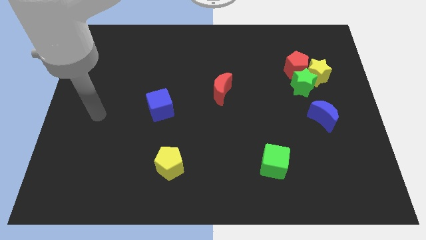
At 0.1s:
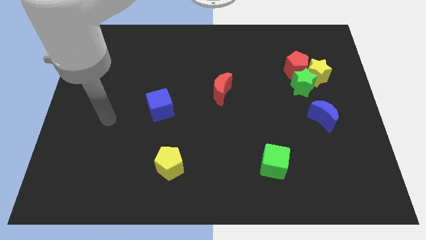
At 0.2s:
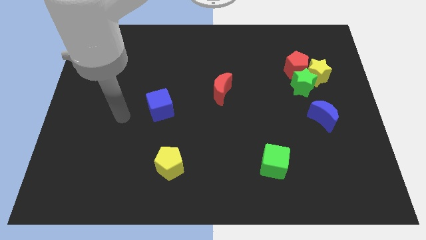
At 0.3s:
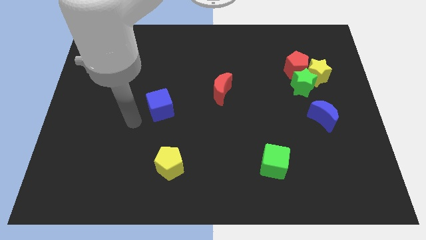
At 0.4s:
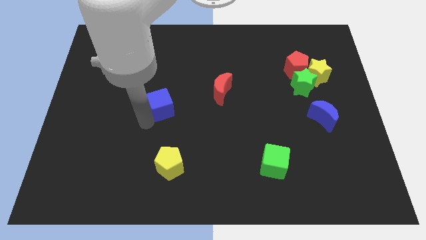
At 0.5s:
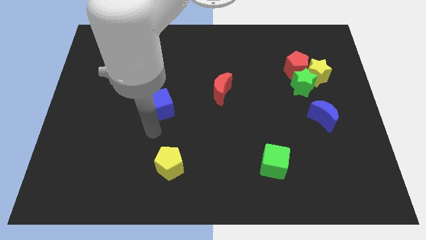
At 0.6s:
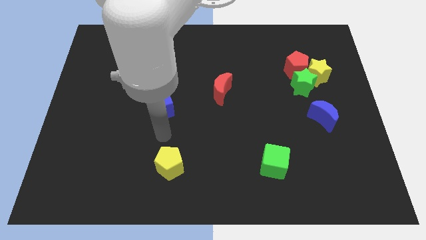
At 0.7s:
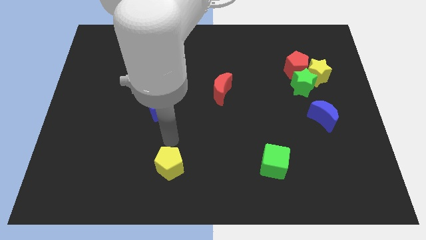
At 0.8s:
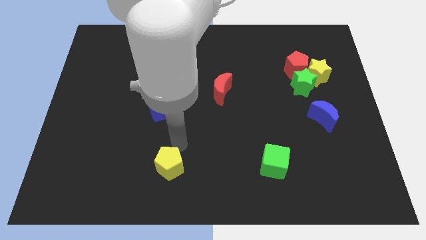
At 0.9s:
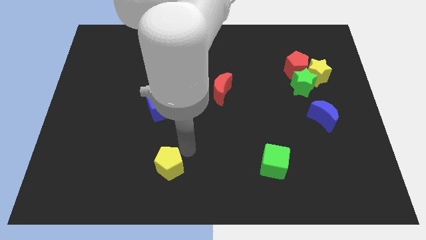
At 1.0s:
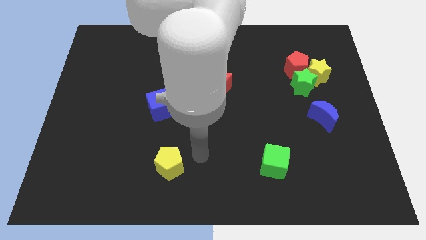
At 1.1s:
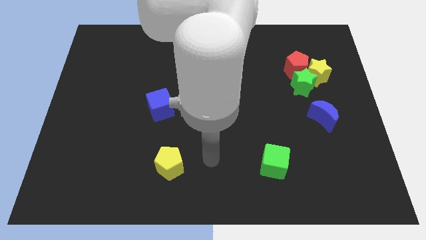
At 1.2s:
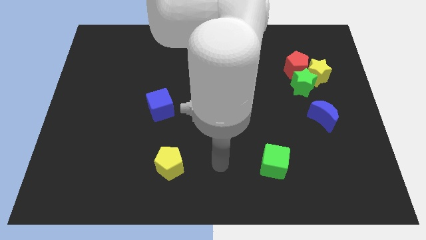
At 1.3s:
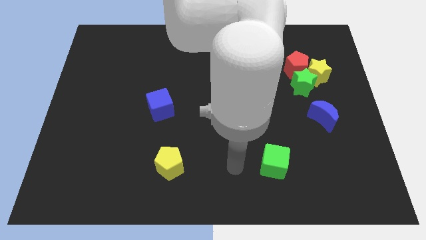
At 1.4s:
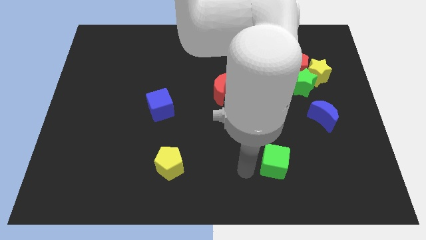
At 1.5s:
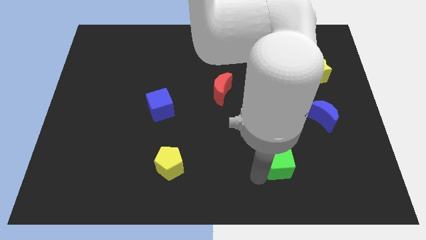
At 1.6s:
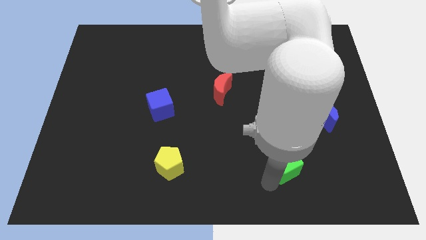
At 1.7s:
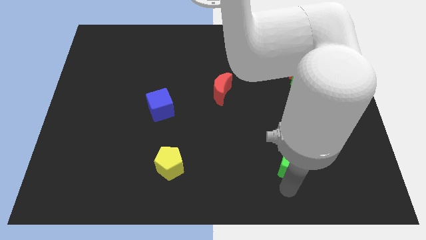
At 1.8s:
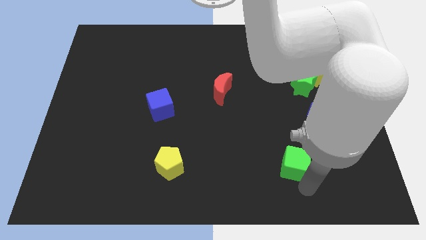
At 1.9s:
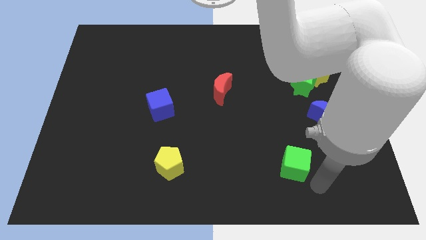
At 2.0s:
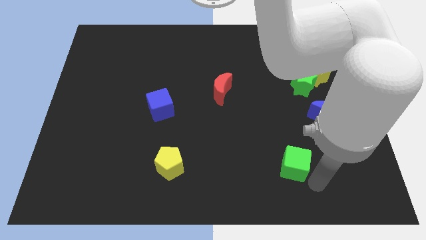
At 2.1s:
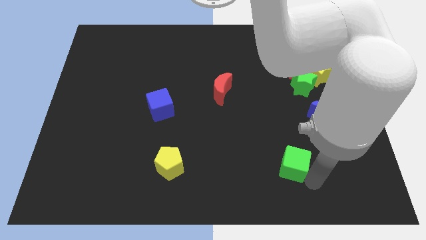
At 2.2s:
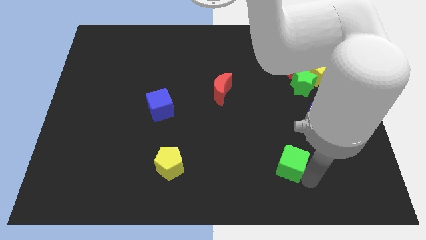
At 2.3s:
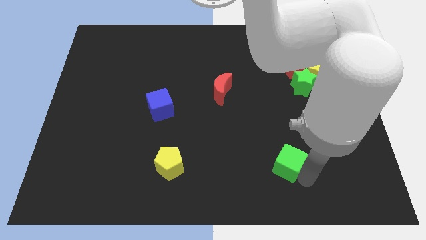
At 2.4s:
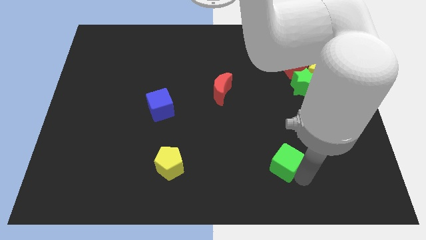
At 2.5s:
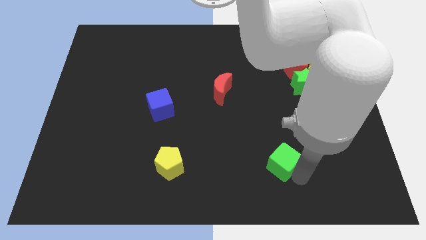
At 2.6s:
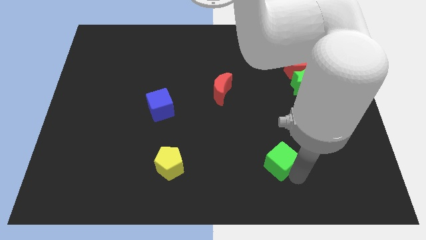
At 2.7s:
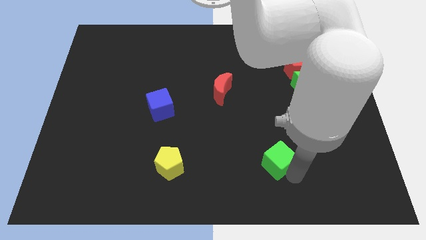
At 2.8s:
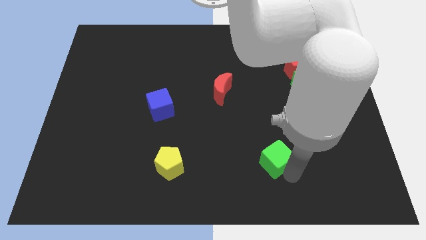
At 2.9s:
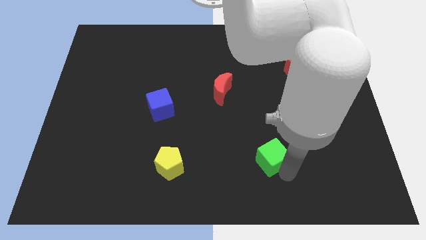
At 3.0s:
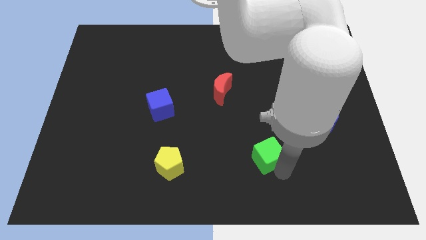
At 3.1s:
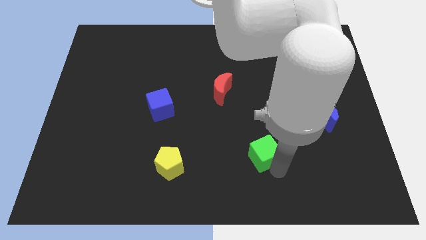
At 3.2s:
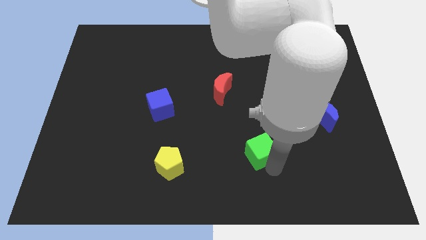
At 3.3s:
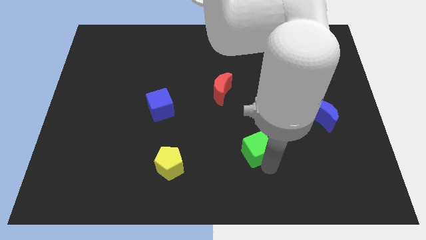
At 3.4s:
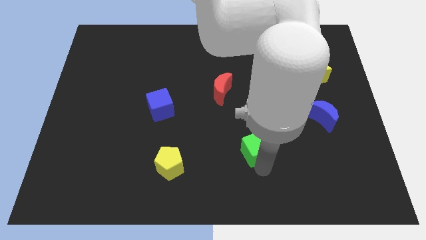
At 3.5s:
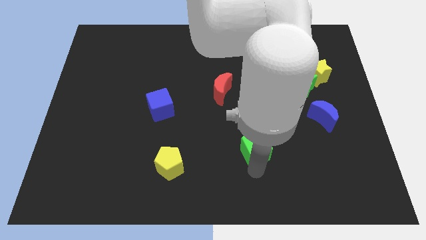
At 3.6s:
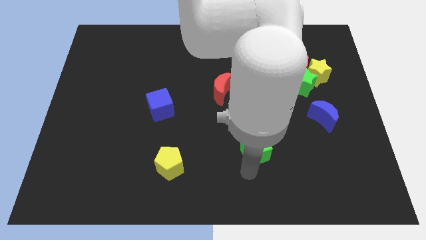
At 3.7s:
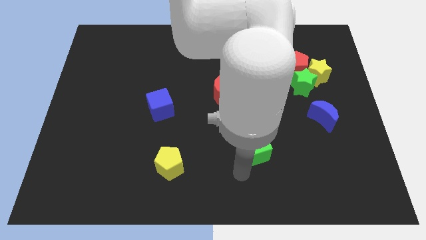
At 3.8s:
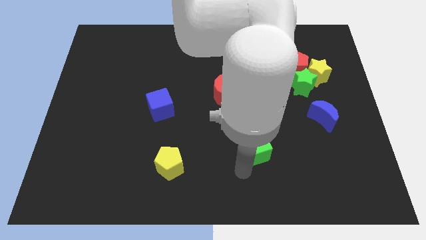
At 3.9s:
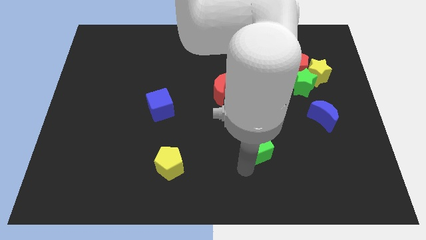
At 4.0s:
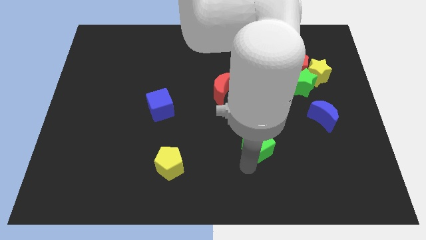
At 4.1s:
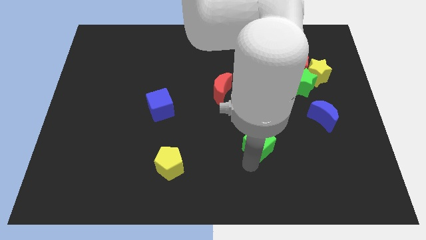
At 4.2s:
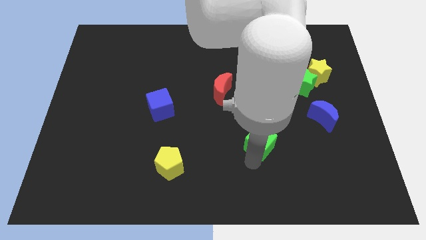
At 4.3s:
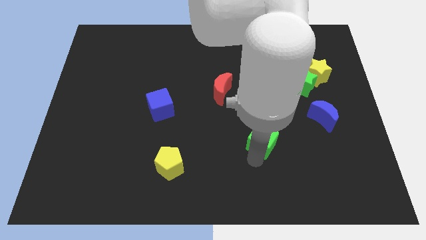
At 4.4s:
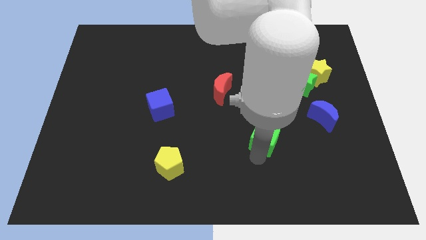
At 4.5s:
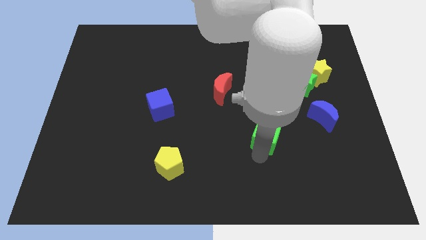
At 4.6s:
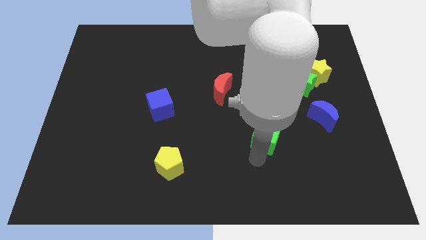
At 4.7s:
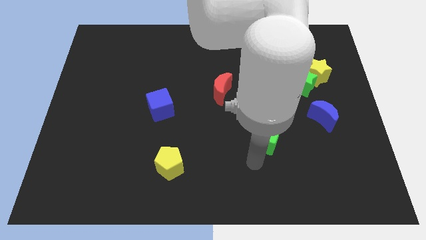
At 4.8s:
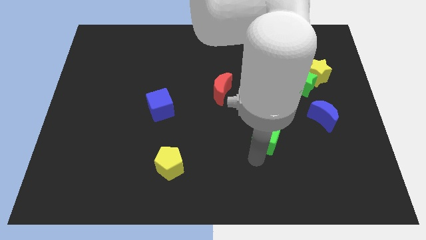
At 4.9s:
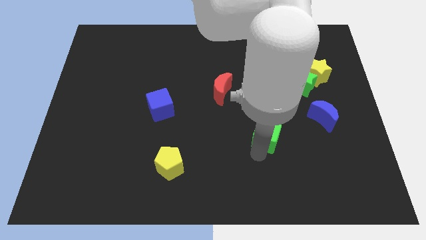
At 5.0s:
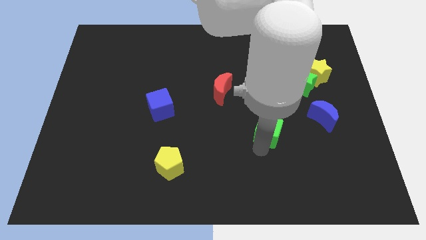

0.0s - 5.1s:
slightly move the green cube upwards

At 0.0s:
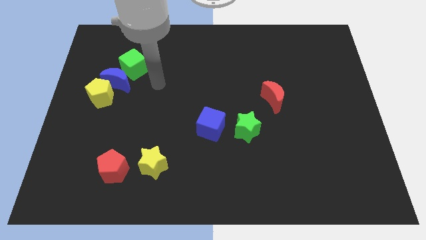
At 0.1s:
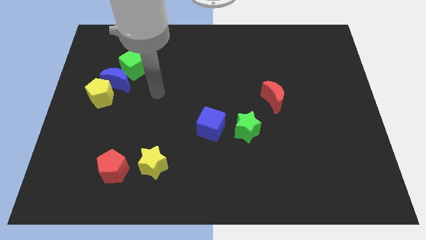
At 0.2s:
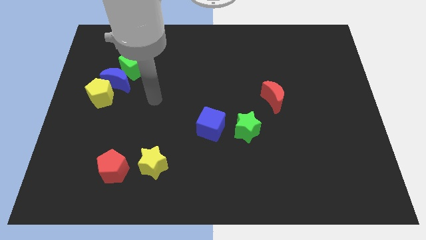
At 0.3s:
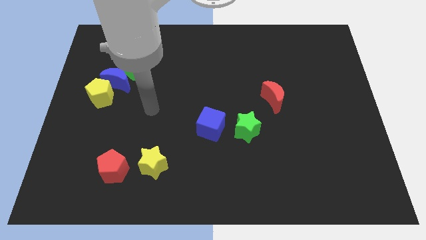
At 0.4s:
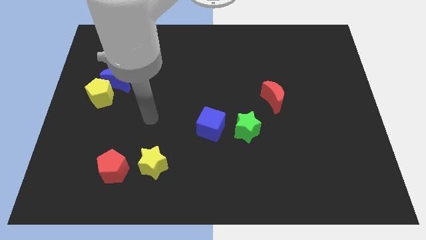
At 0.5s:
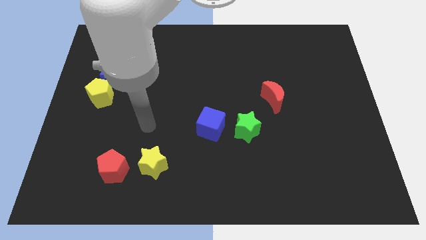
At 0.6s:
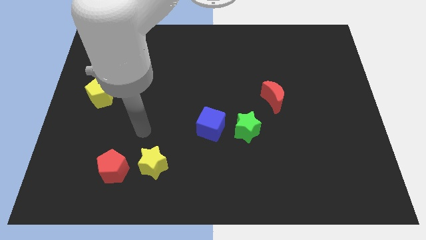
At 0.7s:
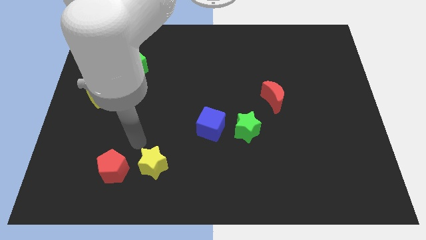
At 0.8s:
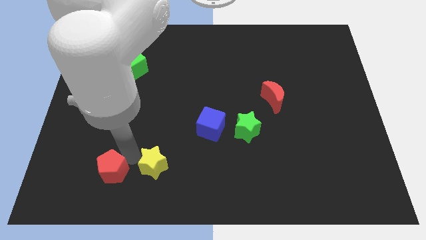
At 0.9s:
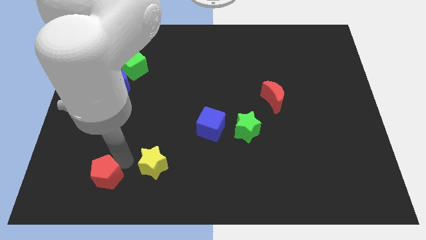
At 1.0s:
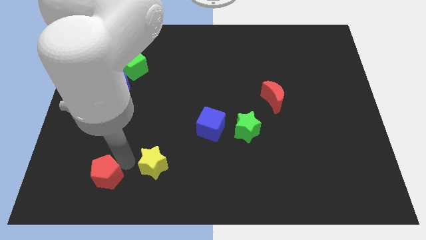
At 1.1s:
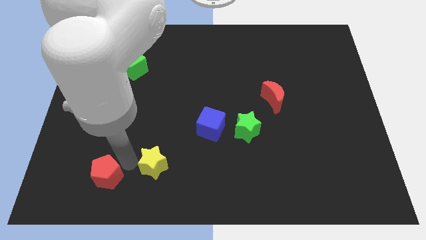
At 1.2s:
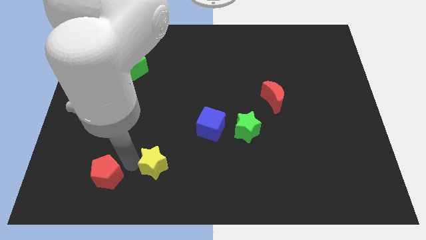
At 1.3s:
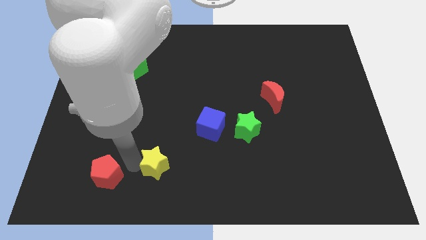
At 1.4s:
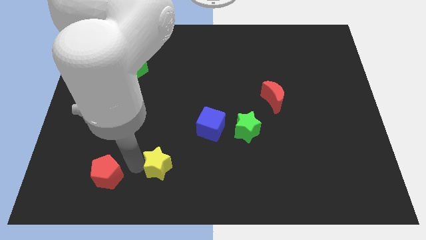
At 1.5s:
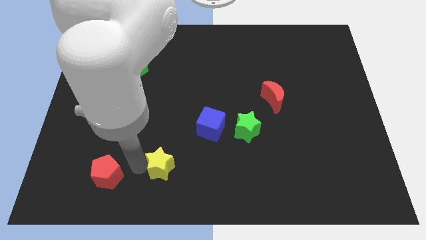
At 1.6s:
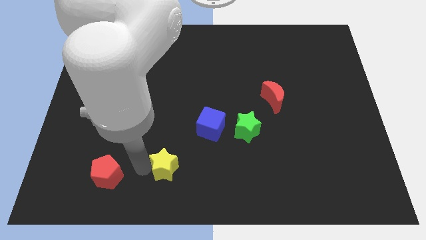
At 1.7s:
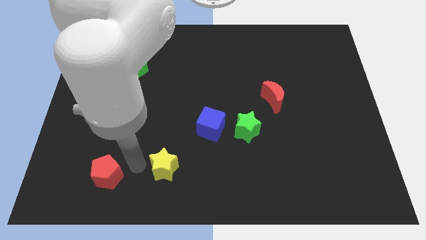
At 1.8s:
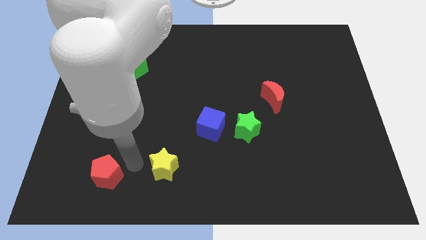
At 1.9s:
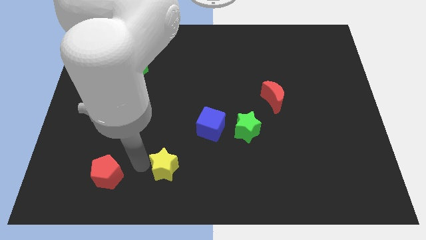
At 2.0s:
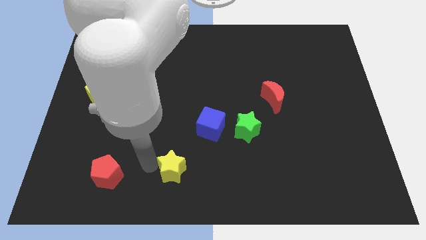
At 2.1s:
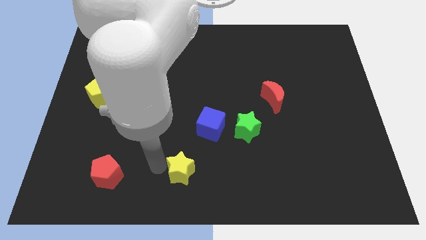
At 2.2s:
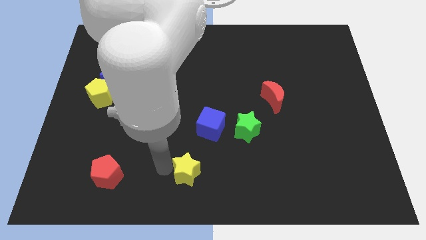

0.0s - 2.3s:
push the yellow star right slightly

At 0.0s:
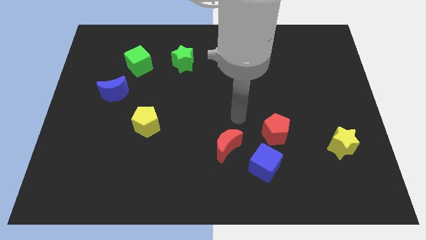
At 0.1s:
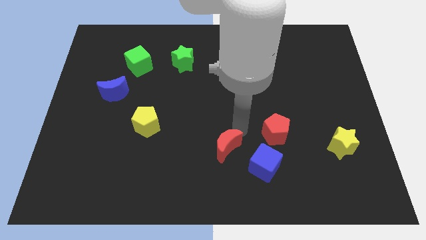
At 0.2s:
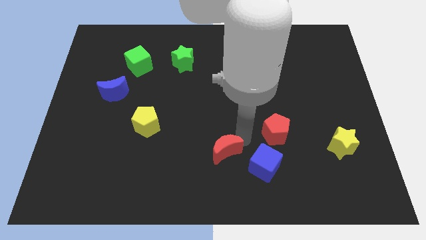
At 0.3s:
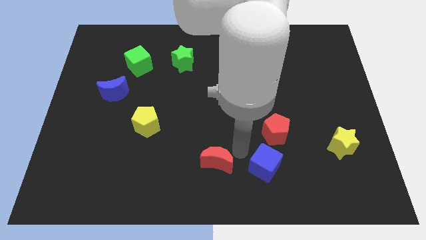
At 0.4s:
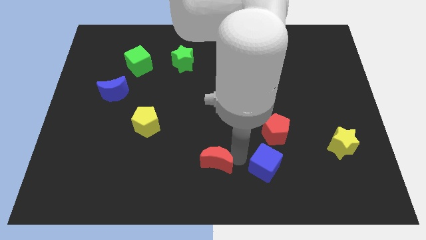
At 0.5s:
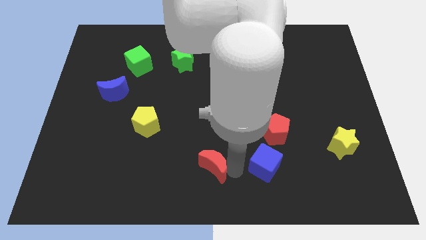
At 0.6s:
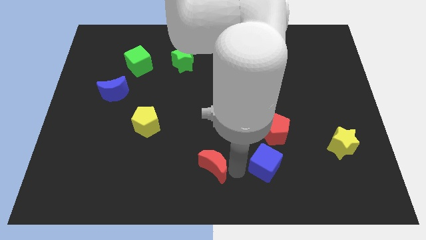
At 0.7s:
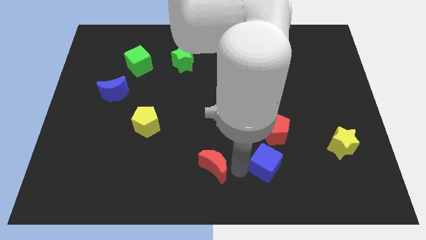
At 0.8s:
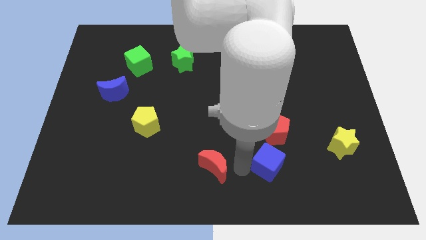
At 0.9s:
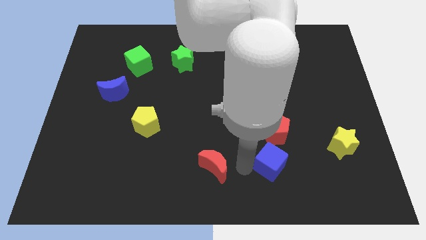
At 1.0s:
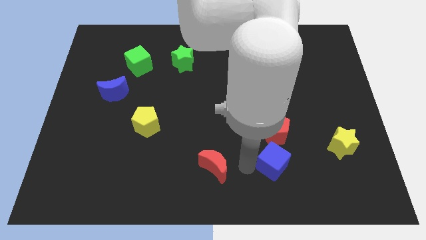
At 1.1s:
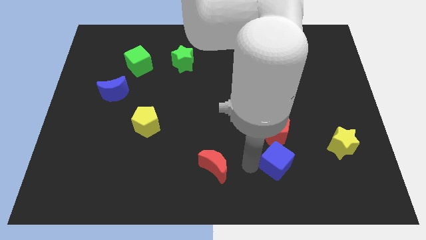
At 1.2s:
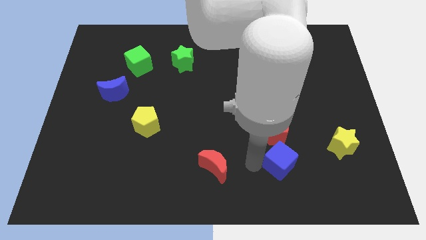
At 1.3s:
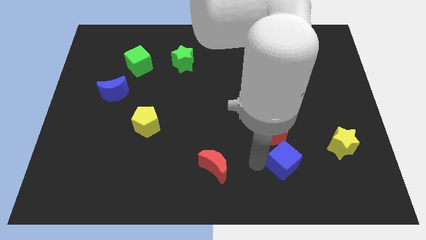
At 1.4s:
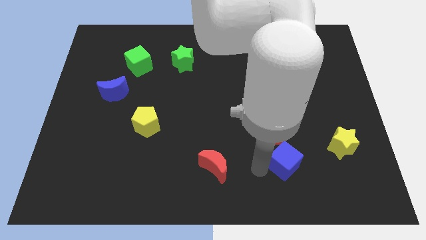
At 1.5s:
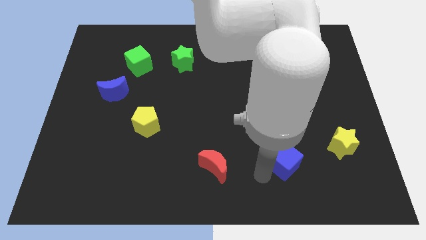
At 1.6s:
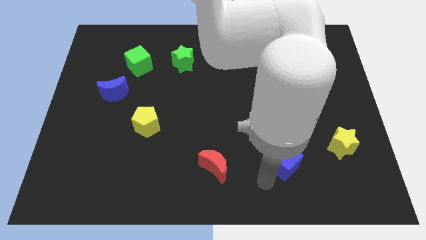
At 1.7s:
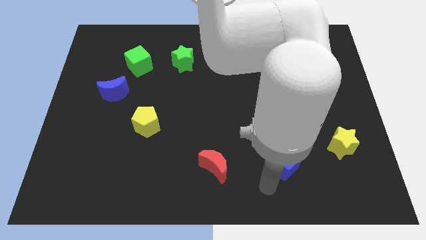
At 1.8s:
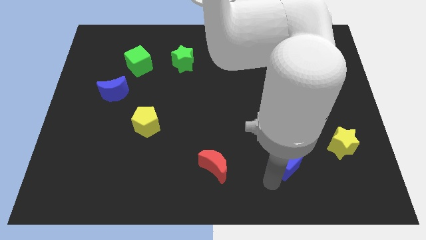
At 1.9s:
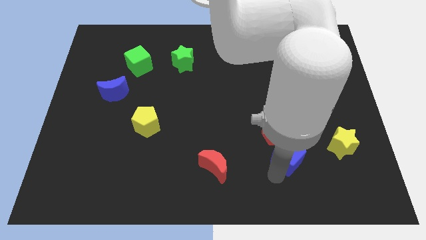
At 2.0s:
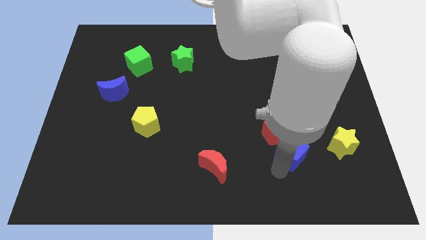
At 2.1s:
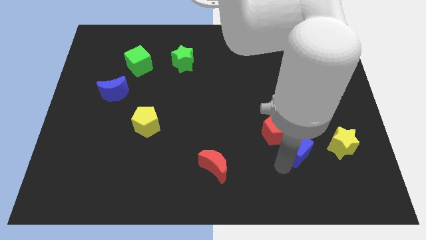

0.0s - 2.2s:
slightly push the blue cube upwards and then right
